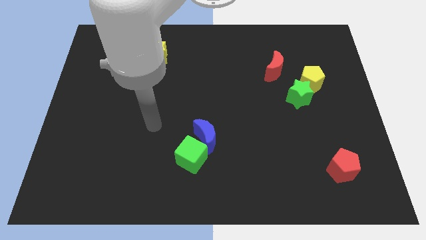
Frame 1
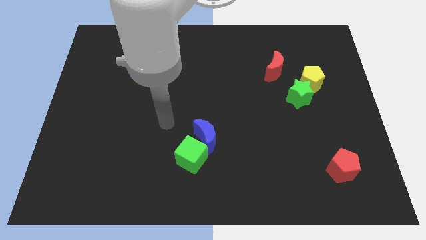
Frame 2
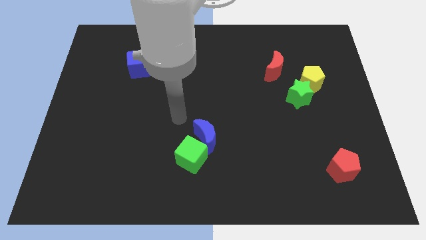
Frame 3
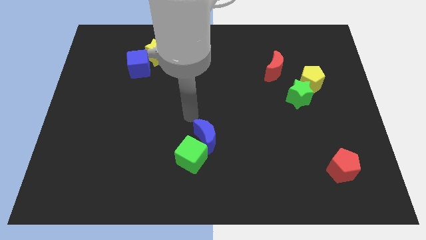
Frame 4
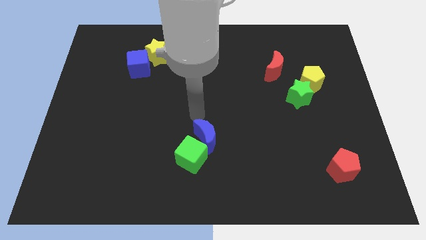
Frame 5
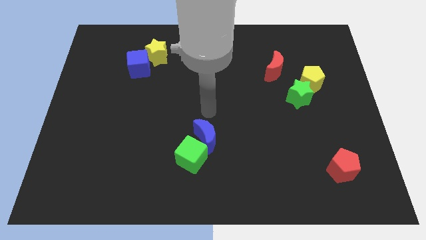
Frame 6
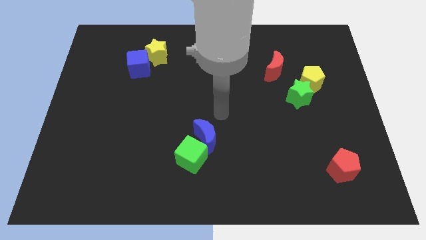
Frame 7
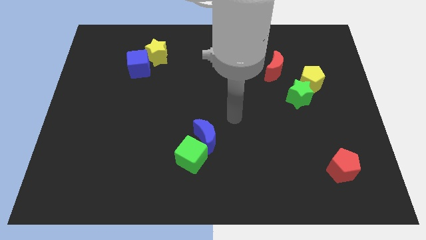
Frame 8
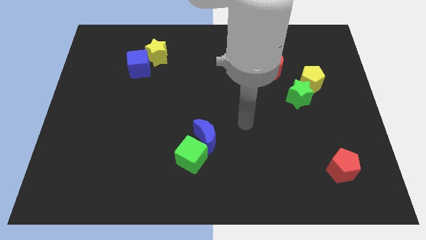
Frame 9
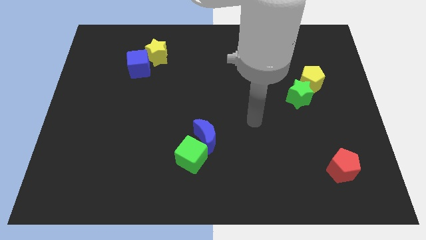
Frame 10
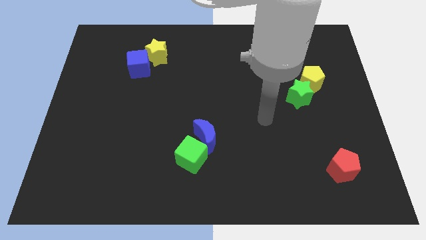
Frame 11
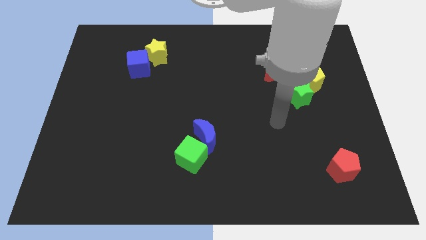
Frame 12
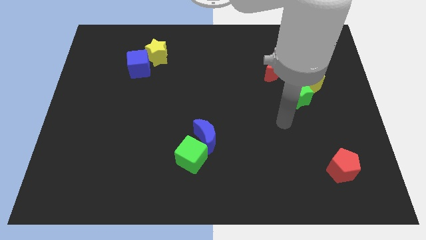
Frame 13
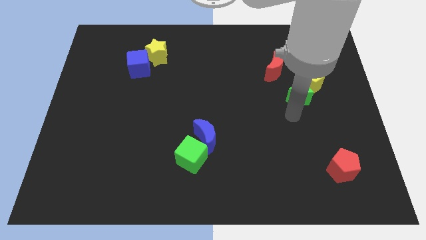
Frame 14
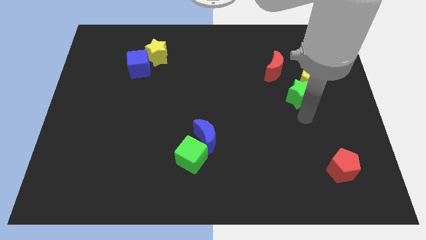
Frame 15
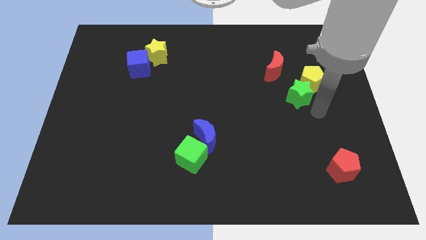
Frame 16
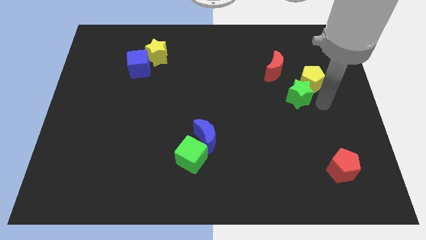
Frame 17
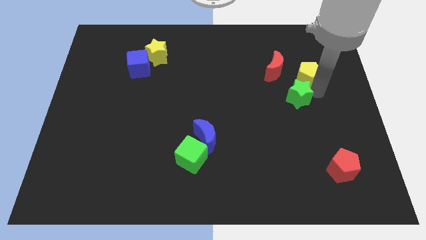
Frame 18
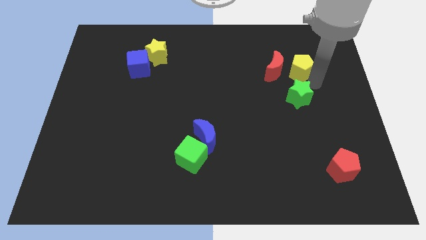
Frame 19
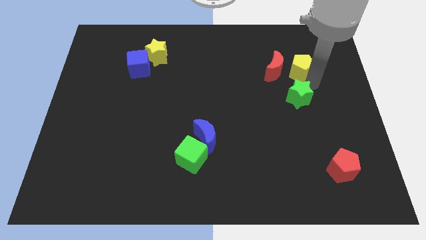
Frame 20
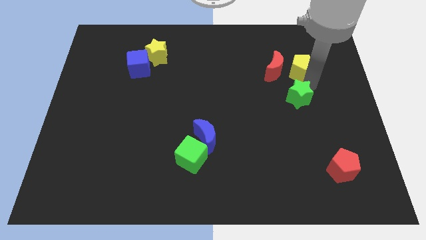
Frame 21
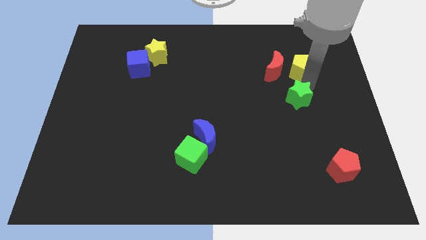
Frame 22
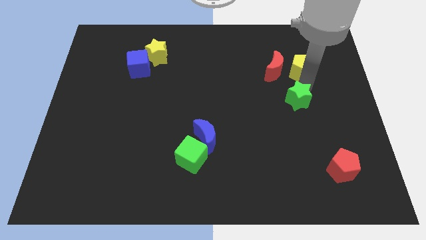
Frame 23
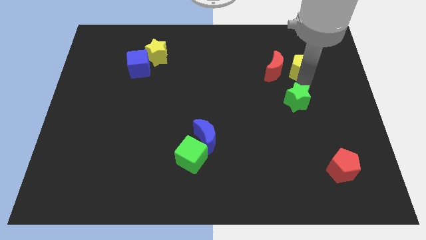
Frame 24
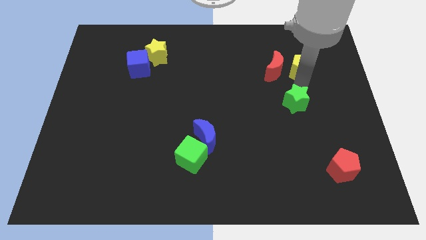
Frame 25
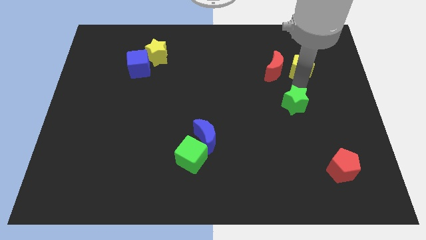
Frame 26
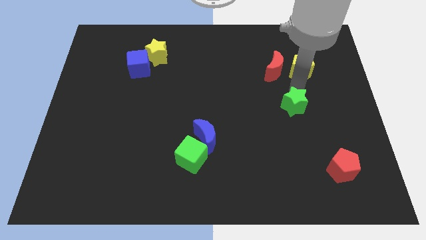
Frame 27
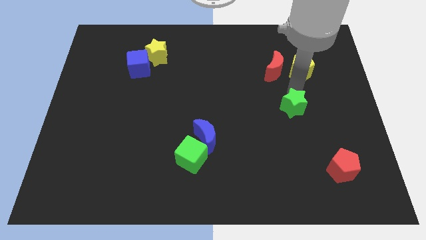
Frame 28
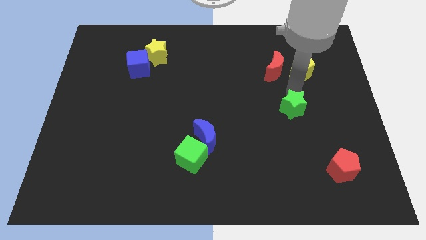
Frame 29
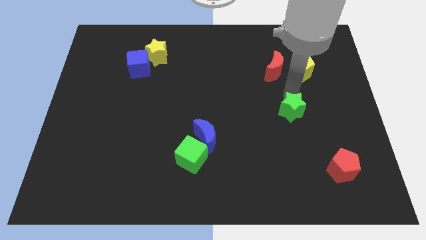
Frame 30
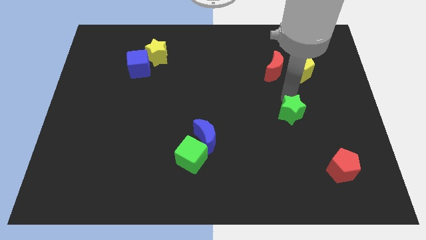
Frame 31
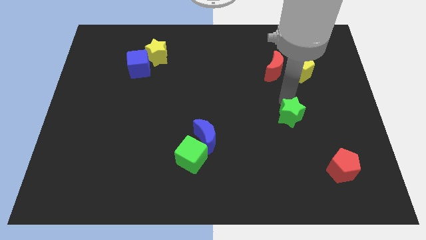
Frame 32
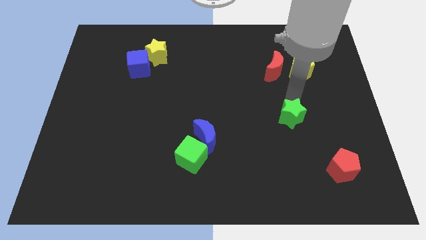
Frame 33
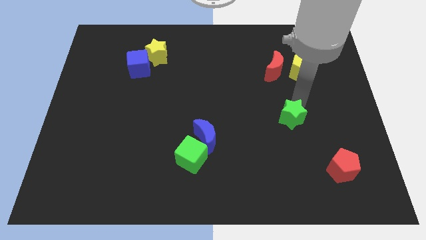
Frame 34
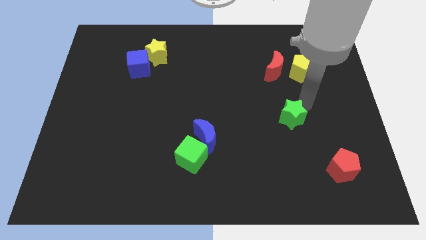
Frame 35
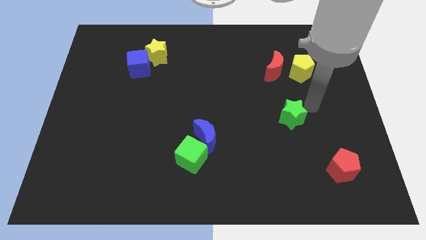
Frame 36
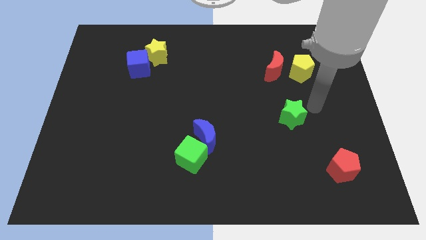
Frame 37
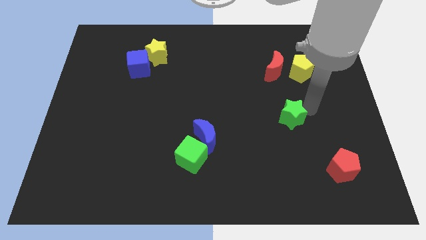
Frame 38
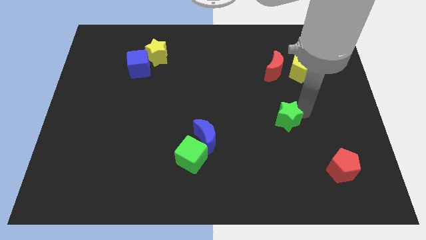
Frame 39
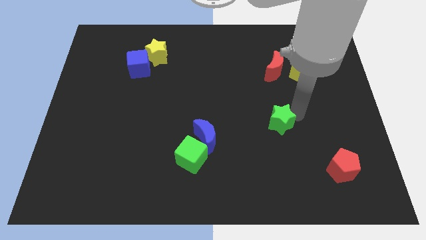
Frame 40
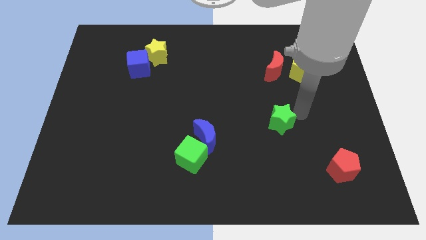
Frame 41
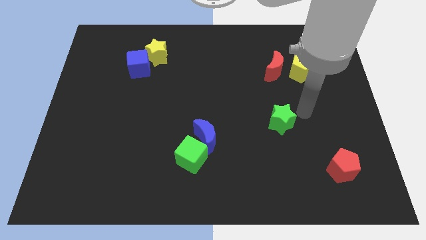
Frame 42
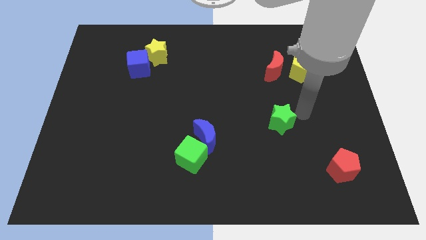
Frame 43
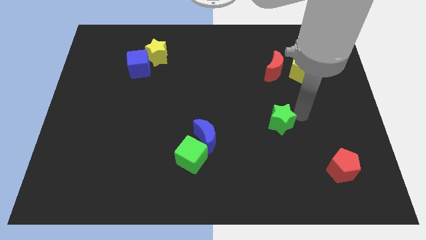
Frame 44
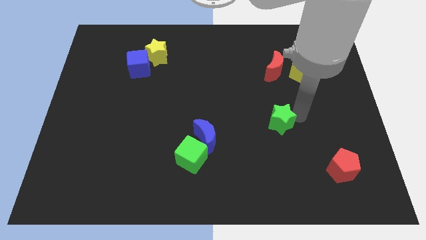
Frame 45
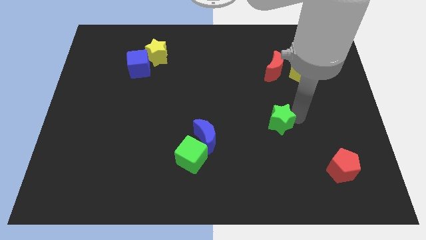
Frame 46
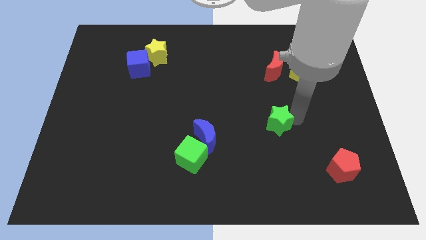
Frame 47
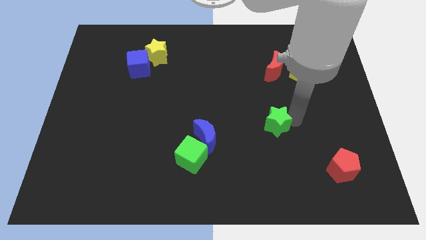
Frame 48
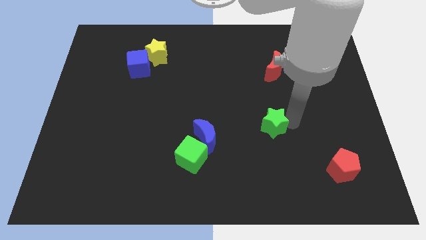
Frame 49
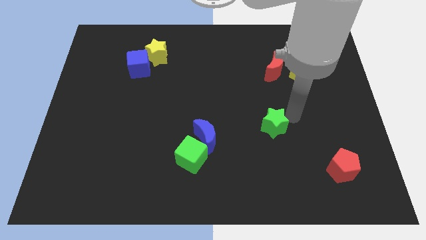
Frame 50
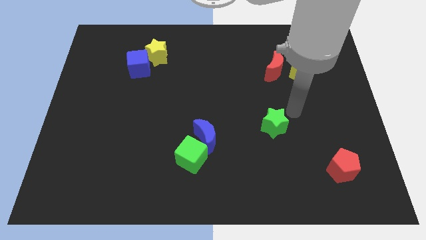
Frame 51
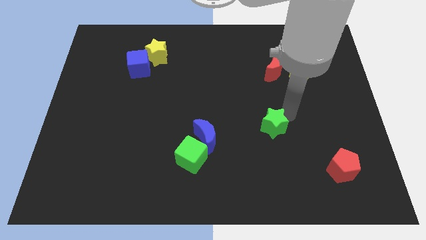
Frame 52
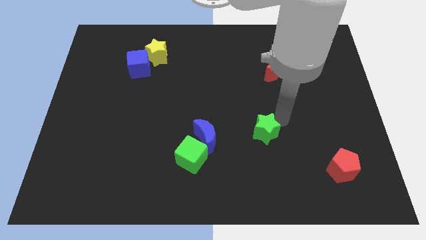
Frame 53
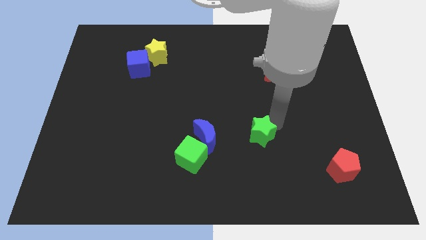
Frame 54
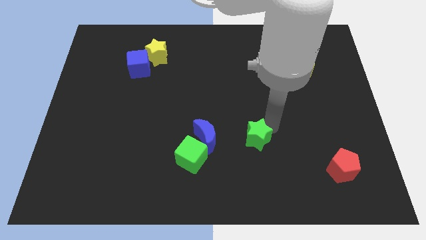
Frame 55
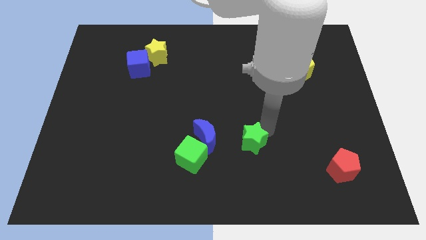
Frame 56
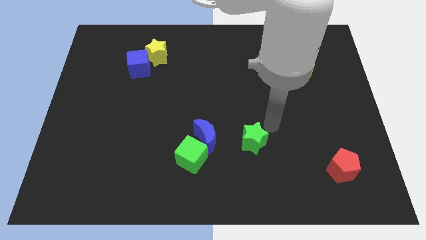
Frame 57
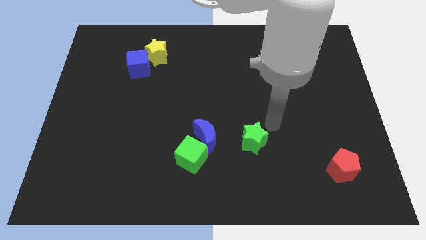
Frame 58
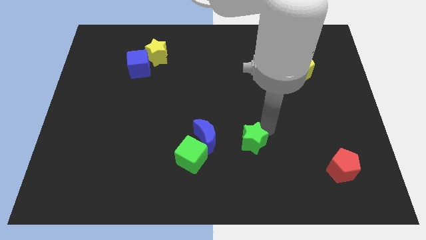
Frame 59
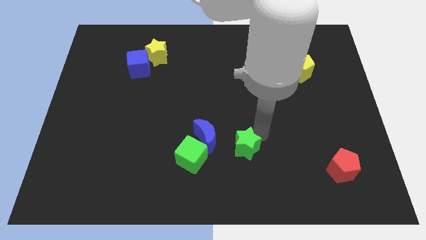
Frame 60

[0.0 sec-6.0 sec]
slide the green star downwards and then to the left

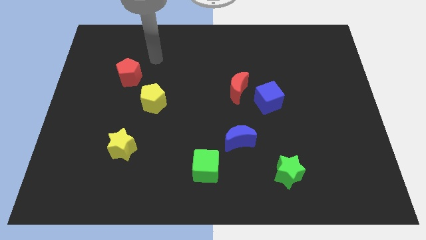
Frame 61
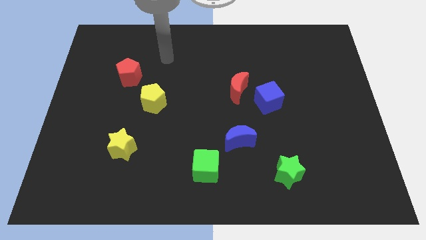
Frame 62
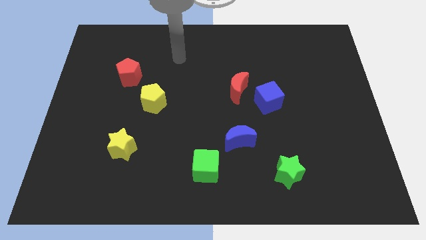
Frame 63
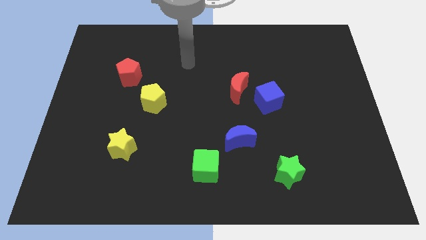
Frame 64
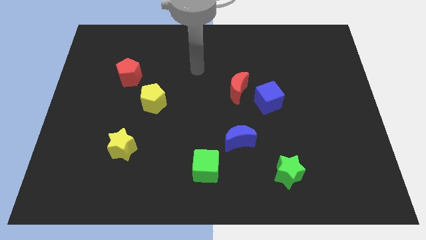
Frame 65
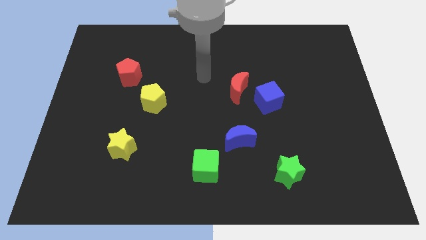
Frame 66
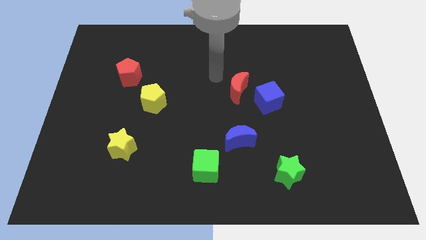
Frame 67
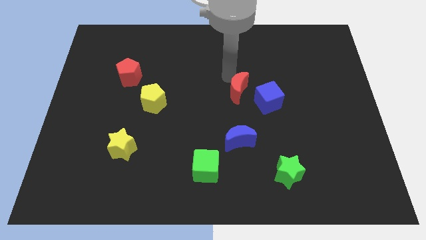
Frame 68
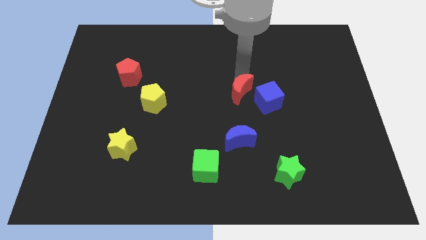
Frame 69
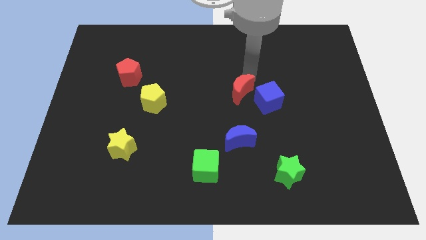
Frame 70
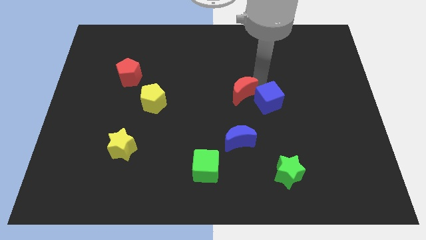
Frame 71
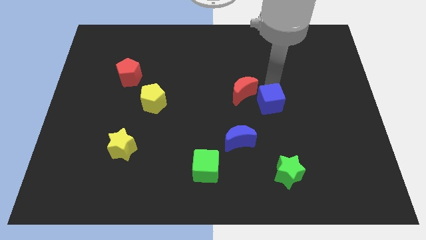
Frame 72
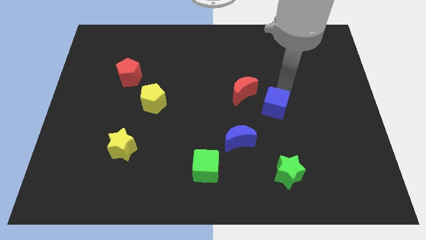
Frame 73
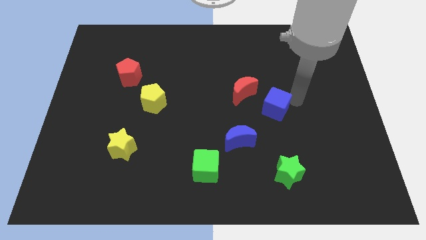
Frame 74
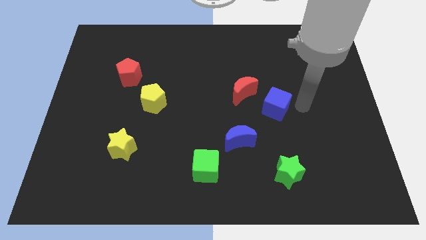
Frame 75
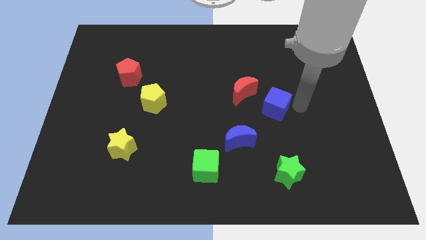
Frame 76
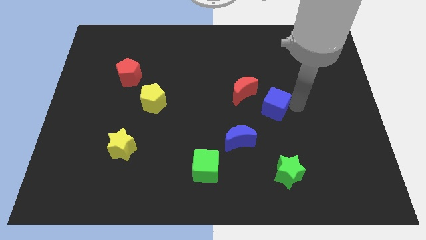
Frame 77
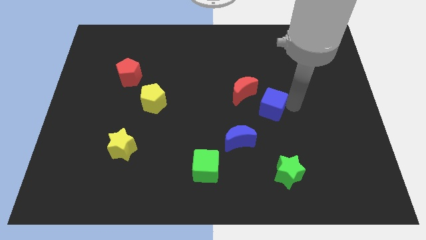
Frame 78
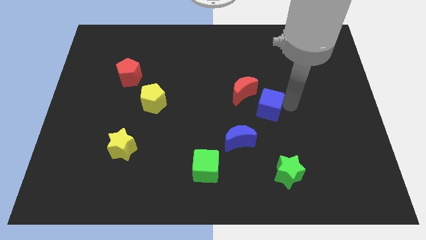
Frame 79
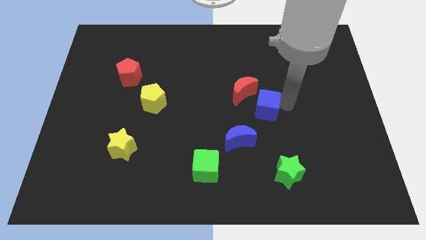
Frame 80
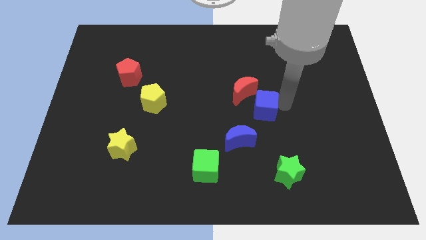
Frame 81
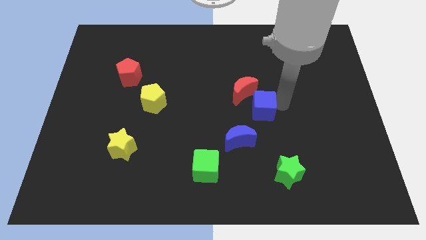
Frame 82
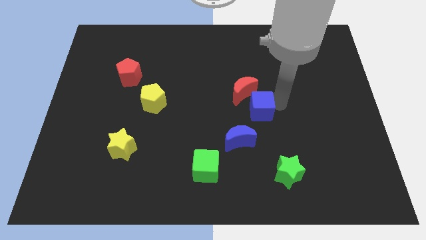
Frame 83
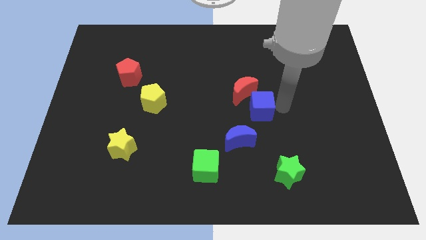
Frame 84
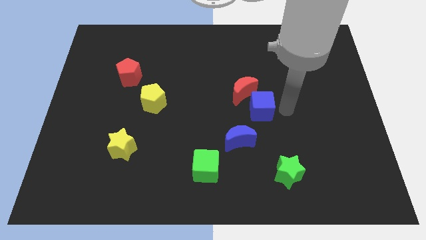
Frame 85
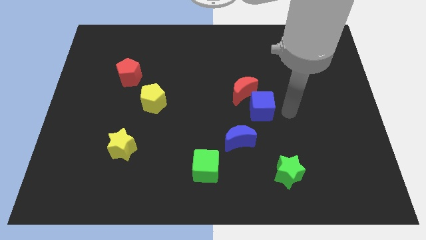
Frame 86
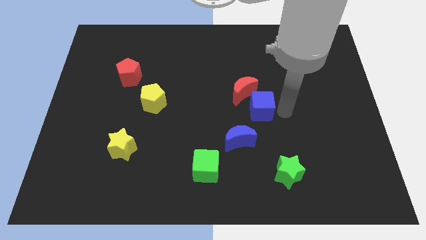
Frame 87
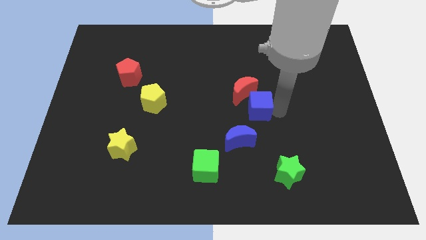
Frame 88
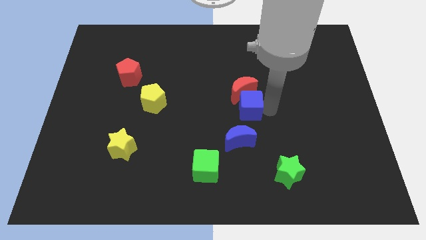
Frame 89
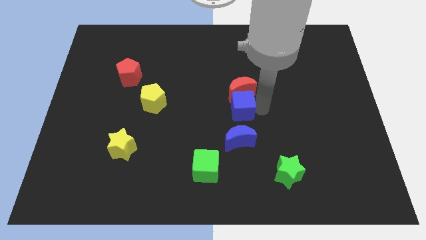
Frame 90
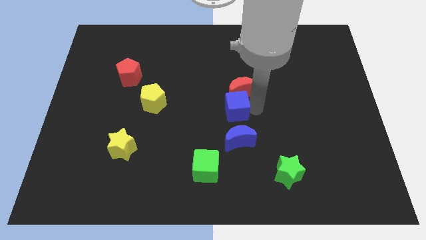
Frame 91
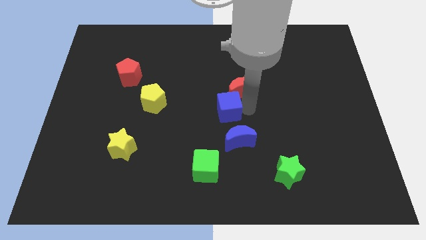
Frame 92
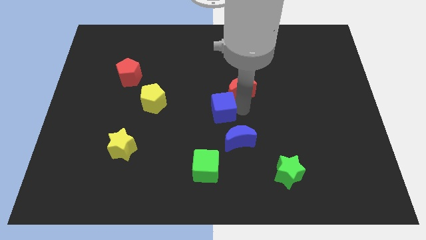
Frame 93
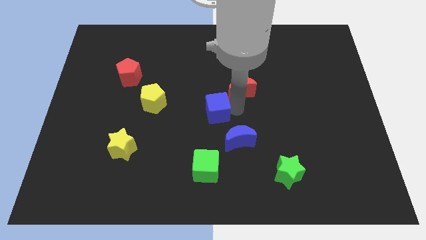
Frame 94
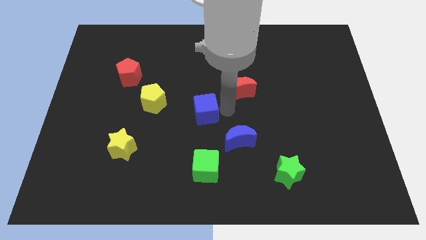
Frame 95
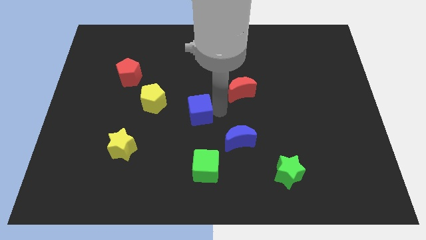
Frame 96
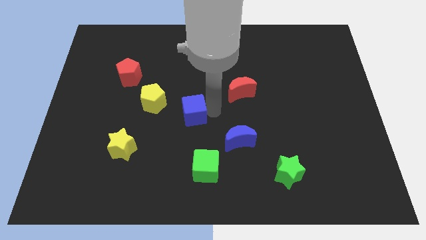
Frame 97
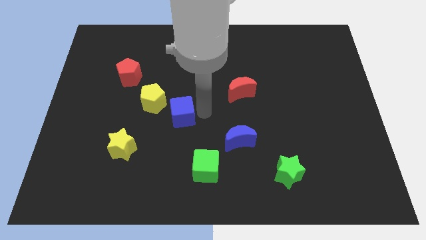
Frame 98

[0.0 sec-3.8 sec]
push the blue cube left
